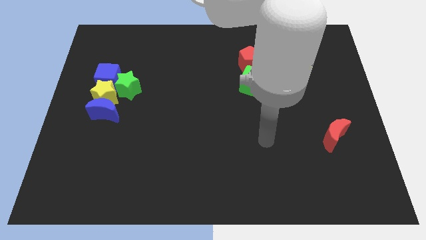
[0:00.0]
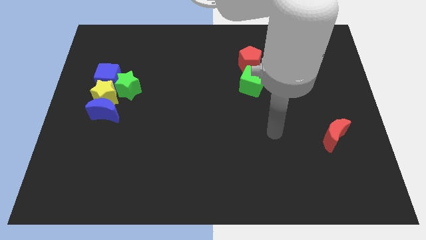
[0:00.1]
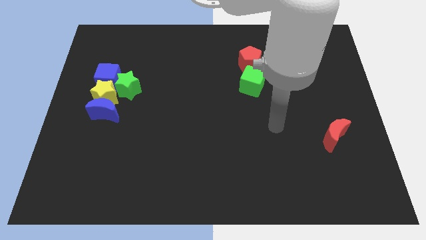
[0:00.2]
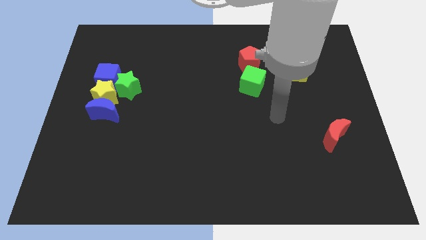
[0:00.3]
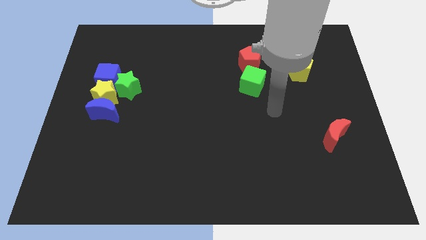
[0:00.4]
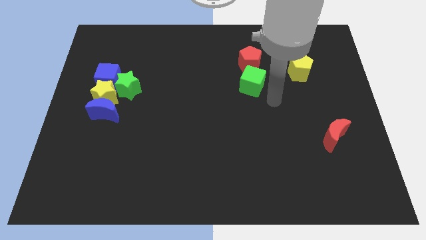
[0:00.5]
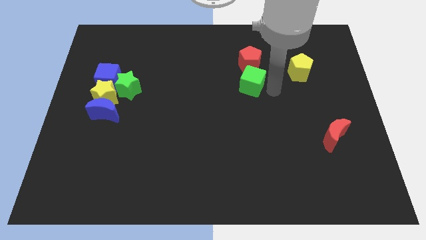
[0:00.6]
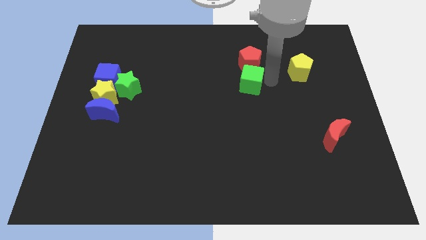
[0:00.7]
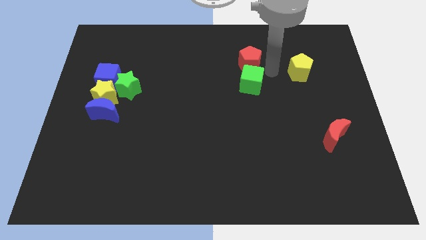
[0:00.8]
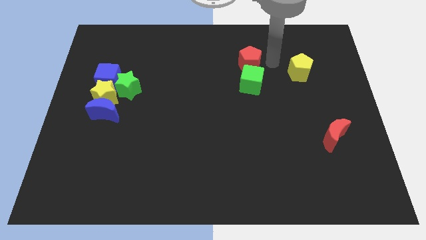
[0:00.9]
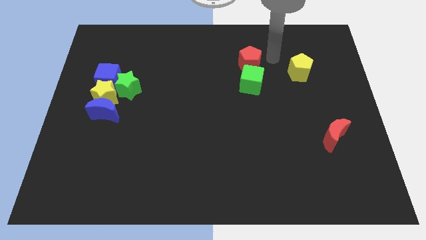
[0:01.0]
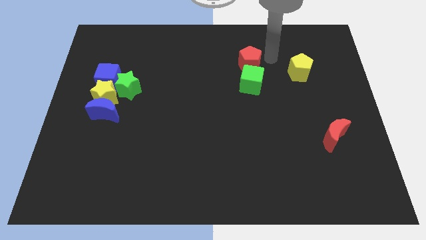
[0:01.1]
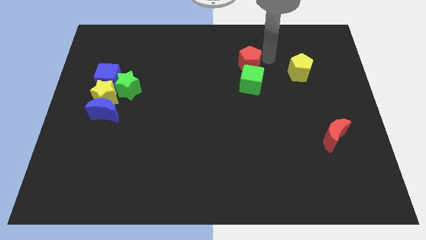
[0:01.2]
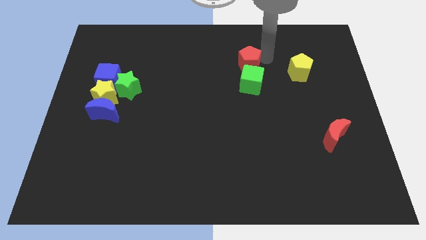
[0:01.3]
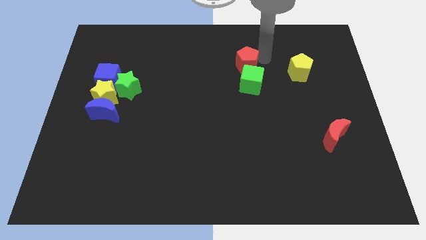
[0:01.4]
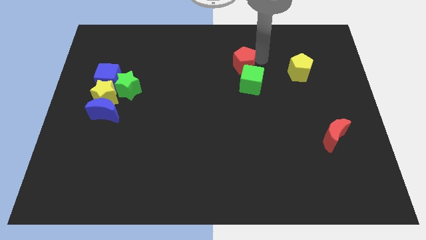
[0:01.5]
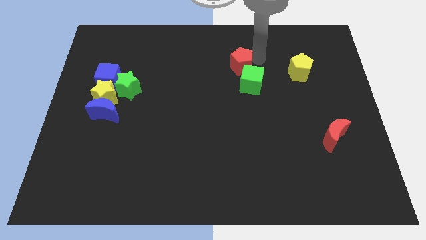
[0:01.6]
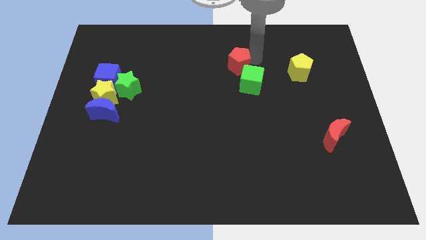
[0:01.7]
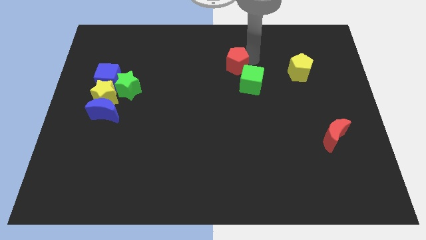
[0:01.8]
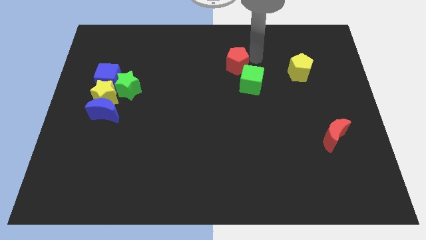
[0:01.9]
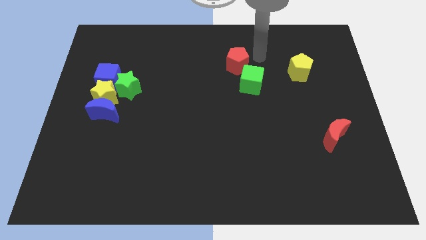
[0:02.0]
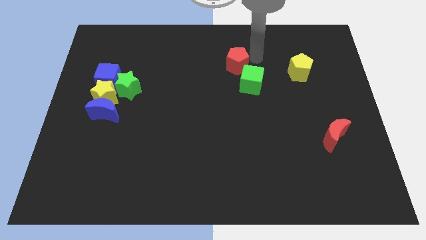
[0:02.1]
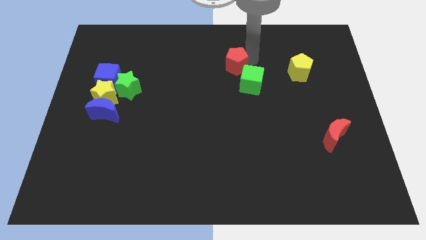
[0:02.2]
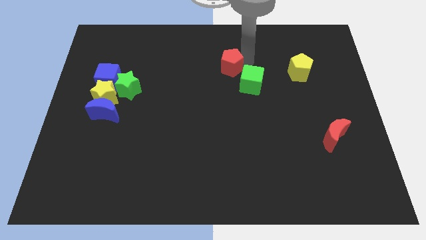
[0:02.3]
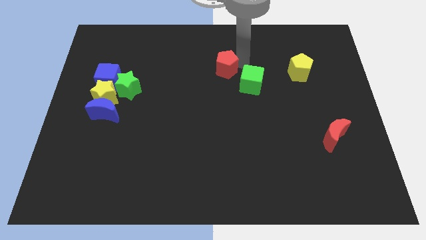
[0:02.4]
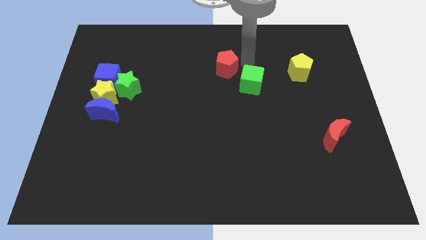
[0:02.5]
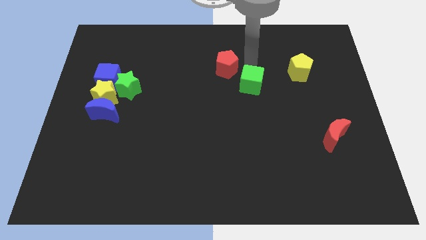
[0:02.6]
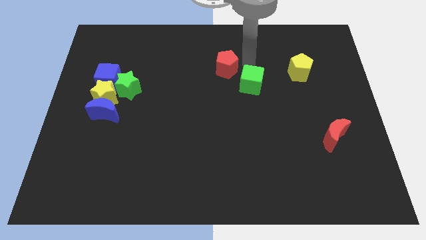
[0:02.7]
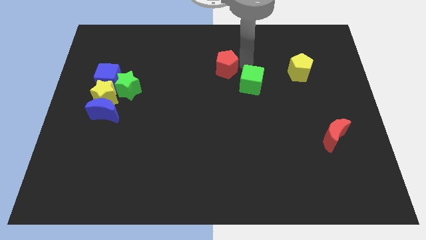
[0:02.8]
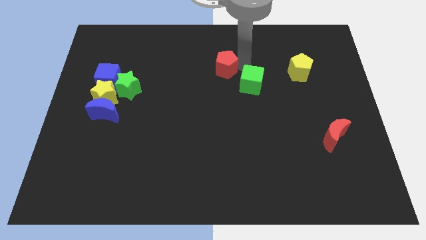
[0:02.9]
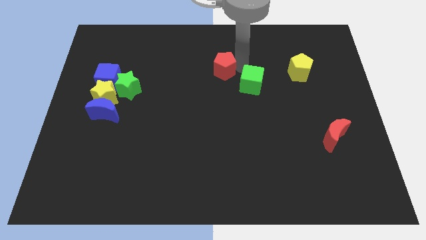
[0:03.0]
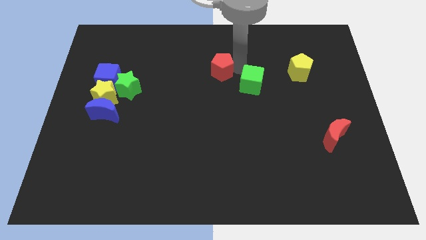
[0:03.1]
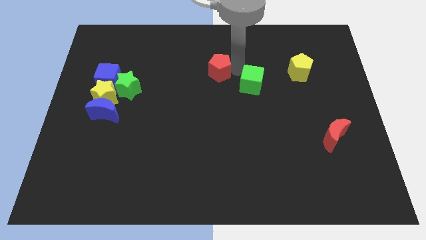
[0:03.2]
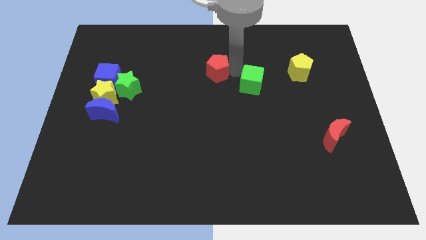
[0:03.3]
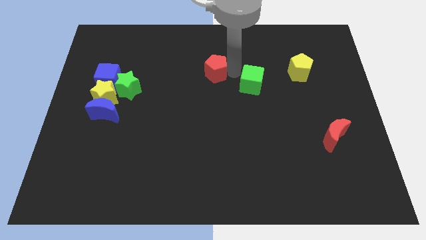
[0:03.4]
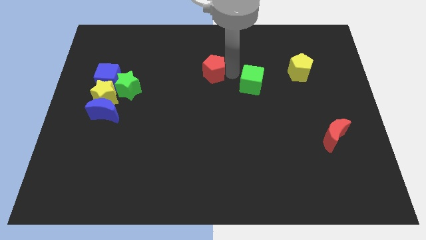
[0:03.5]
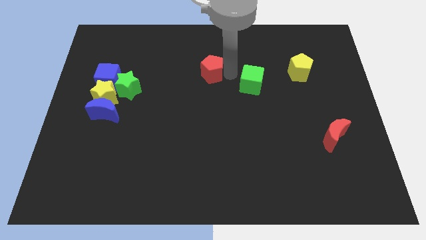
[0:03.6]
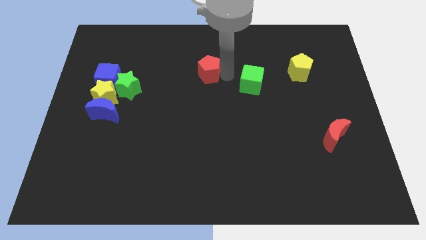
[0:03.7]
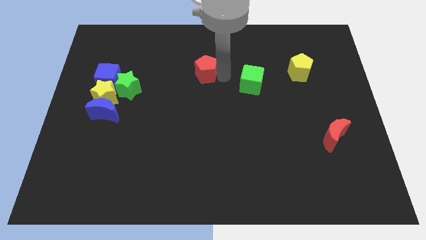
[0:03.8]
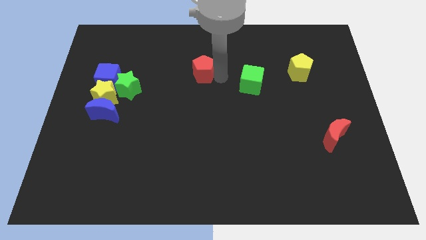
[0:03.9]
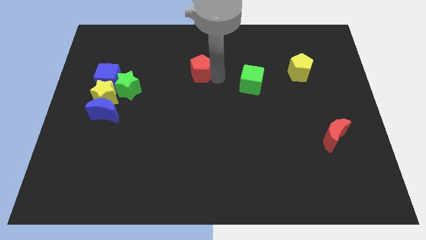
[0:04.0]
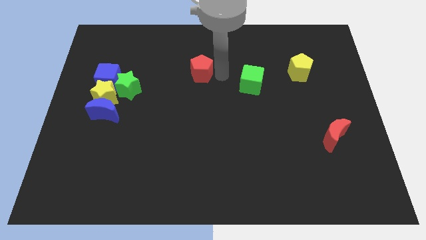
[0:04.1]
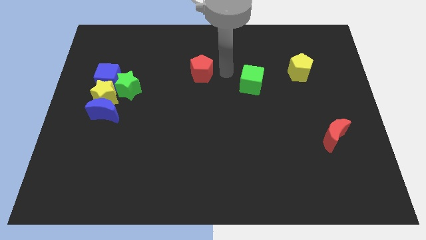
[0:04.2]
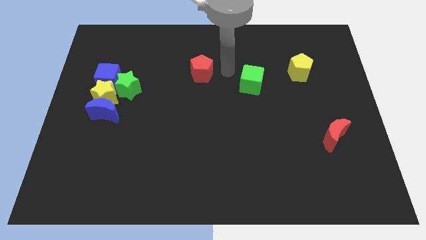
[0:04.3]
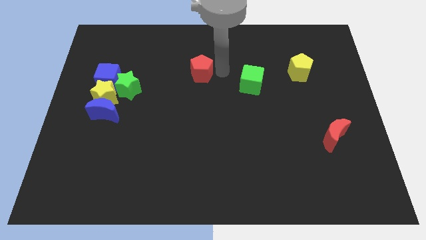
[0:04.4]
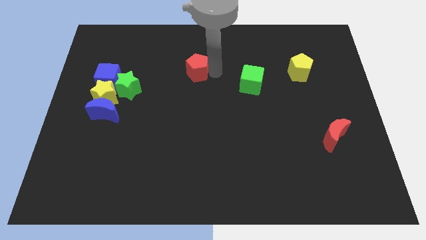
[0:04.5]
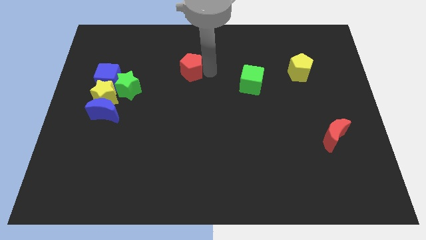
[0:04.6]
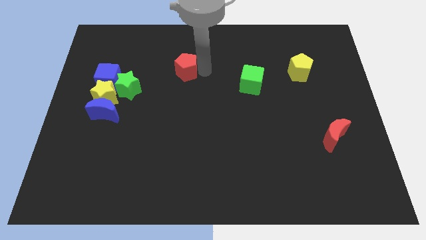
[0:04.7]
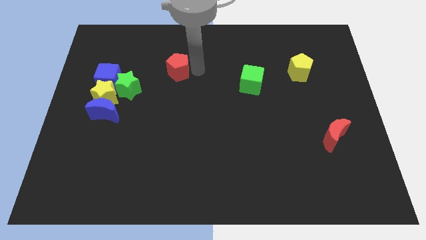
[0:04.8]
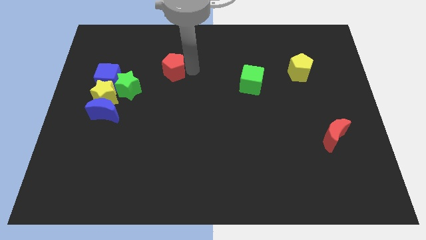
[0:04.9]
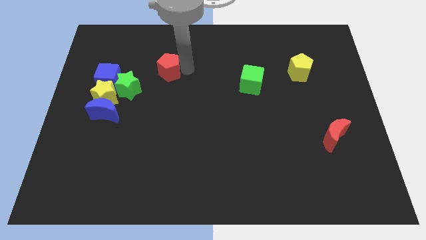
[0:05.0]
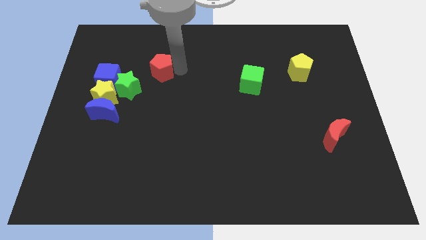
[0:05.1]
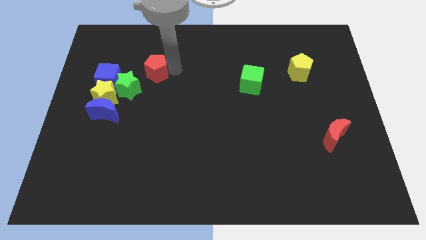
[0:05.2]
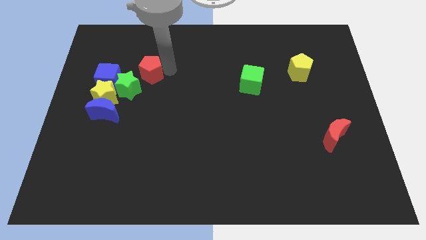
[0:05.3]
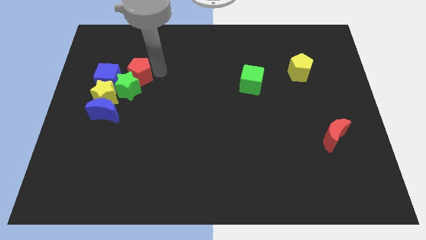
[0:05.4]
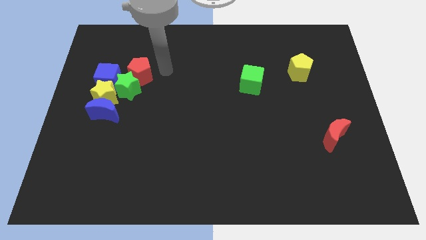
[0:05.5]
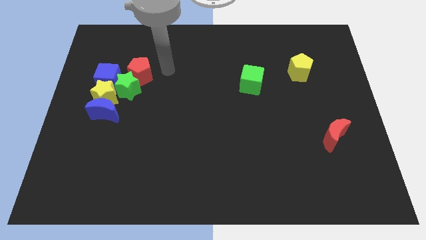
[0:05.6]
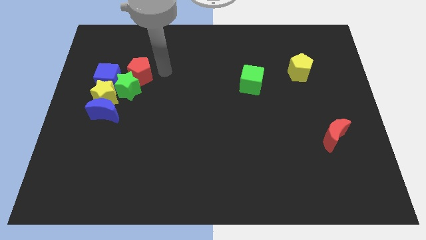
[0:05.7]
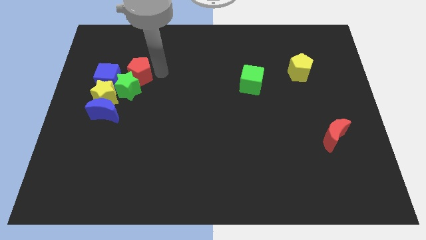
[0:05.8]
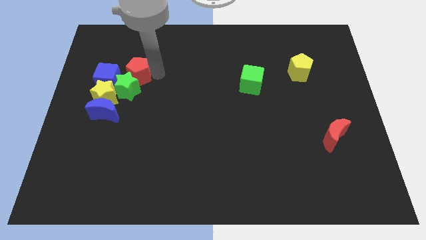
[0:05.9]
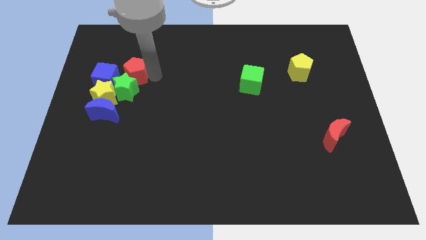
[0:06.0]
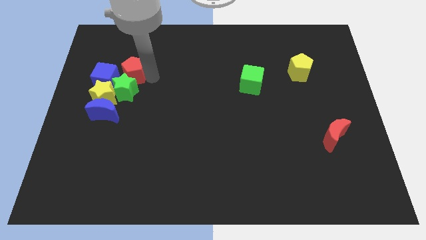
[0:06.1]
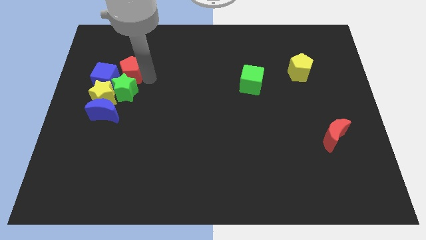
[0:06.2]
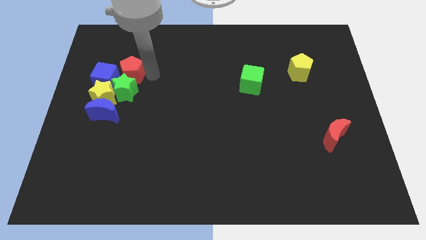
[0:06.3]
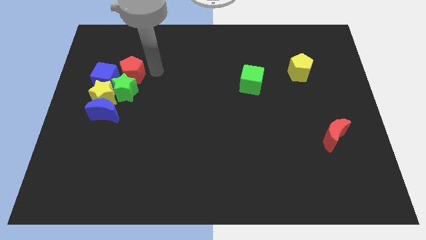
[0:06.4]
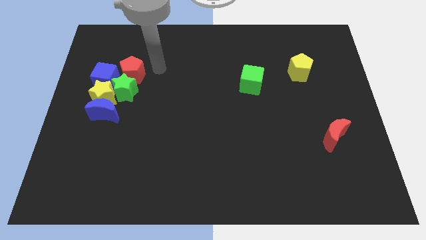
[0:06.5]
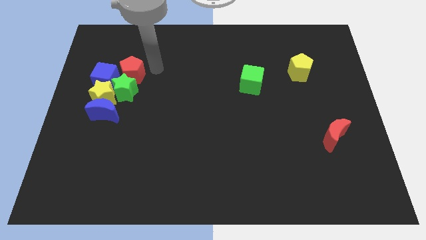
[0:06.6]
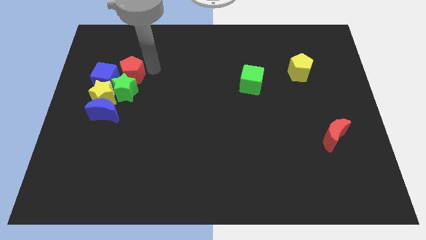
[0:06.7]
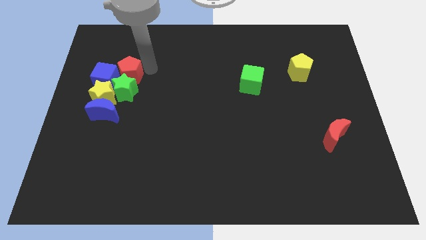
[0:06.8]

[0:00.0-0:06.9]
put the red pentagon towards the blue cube
